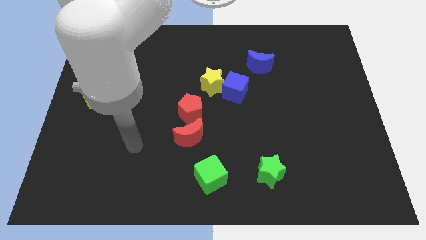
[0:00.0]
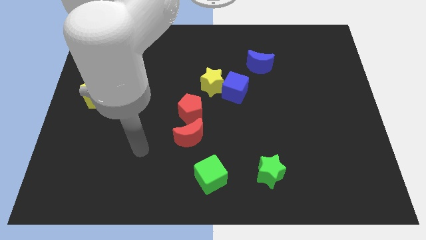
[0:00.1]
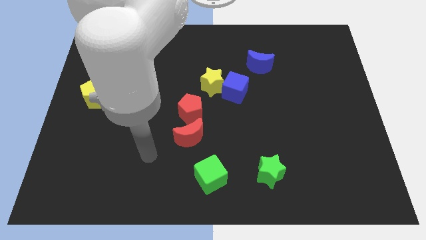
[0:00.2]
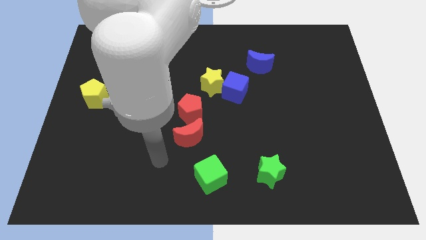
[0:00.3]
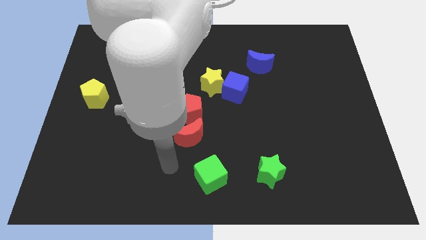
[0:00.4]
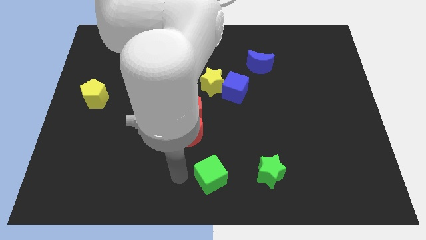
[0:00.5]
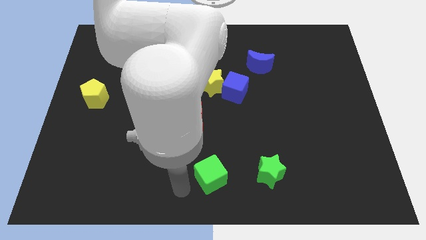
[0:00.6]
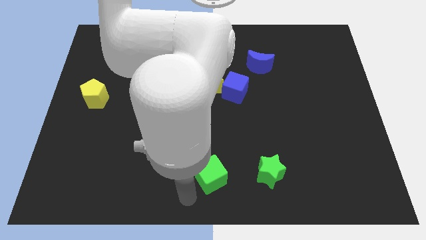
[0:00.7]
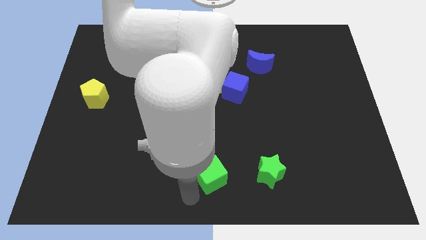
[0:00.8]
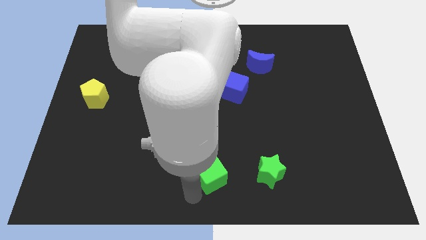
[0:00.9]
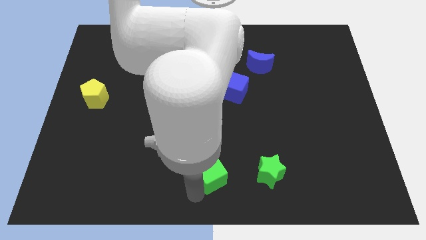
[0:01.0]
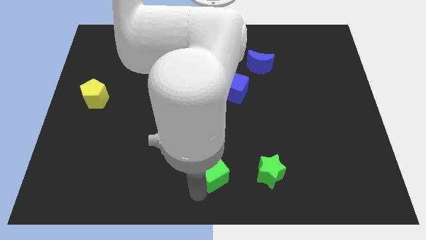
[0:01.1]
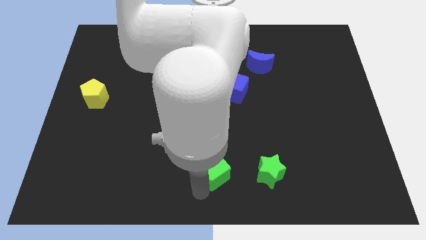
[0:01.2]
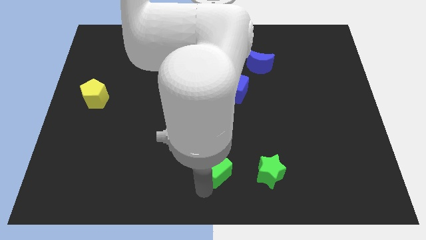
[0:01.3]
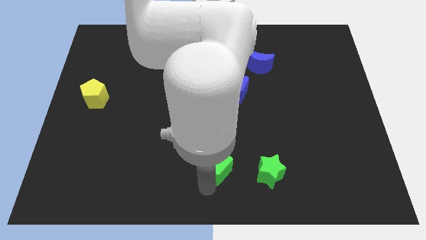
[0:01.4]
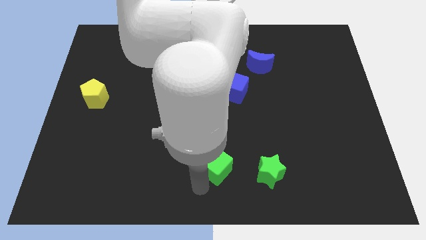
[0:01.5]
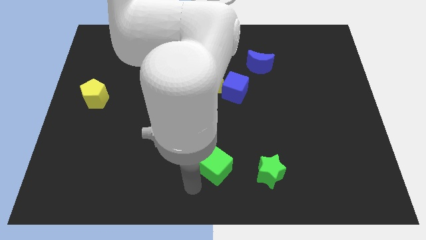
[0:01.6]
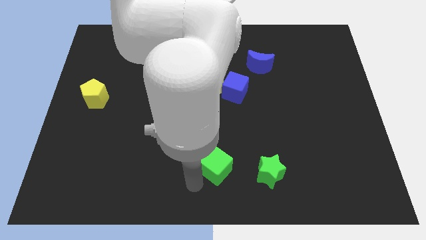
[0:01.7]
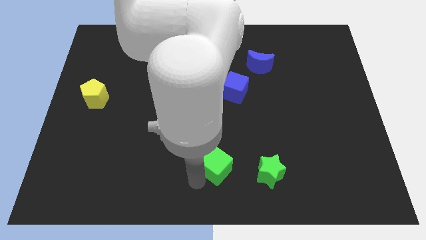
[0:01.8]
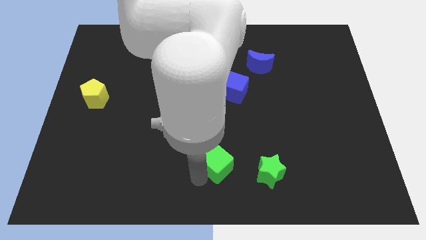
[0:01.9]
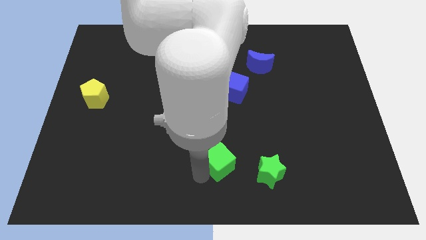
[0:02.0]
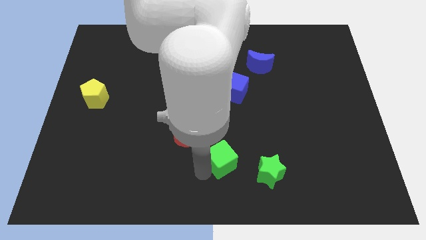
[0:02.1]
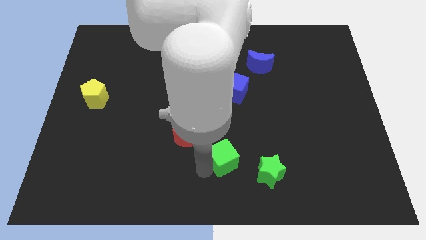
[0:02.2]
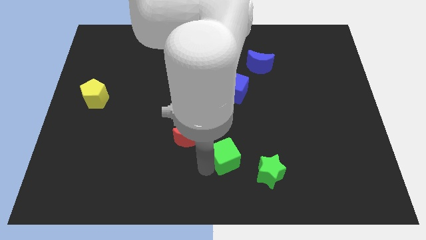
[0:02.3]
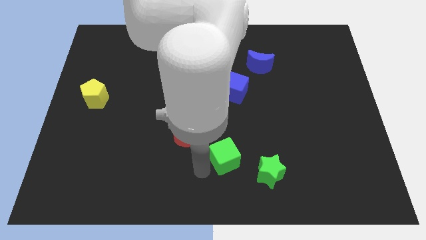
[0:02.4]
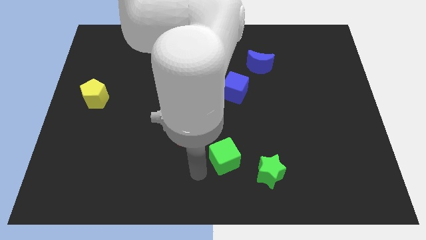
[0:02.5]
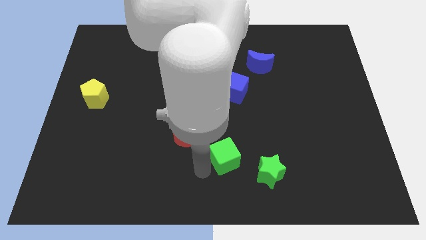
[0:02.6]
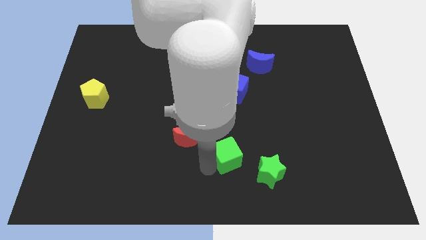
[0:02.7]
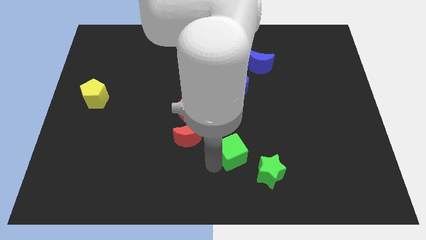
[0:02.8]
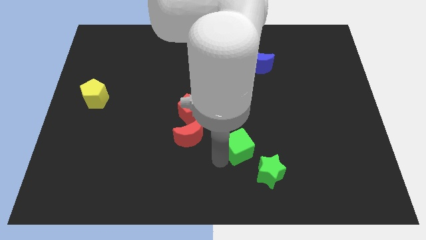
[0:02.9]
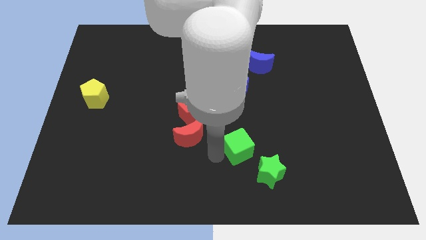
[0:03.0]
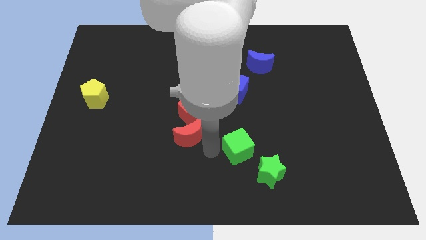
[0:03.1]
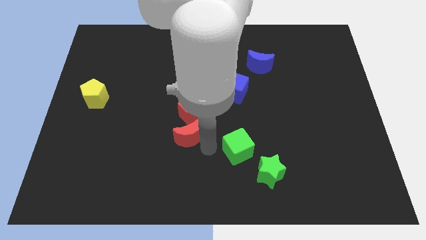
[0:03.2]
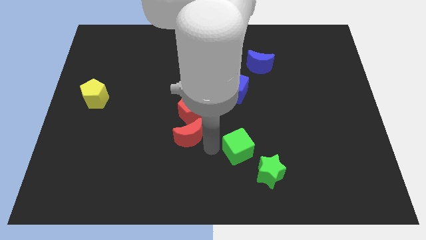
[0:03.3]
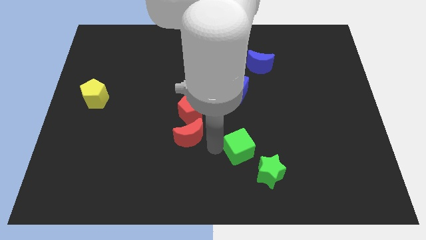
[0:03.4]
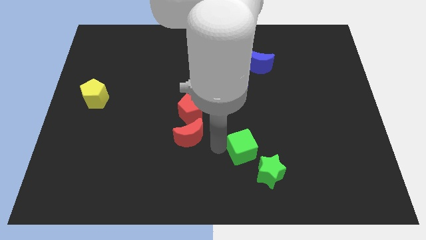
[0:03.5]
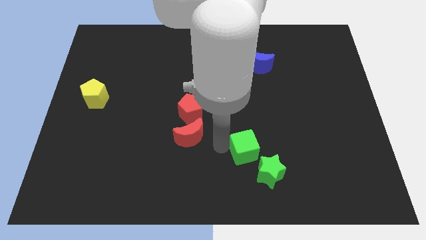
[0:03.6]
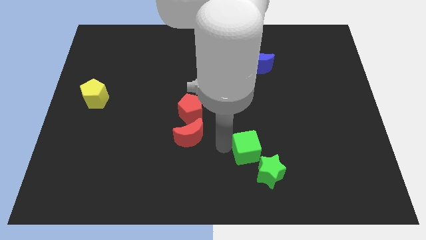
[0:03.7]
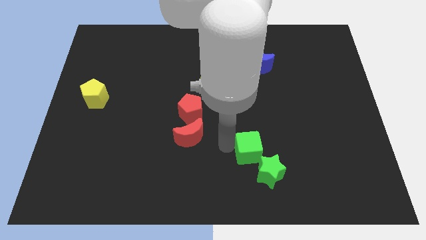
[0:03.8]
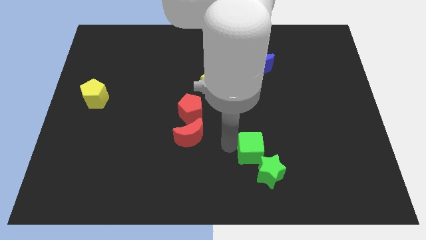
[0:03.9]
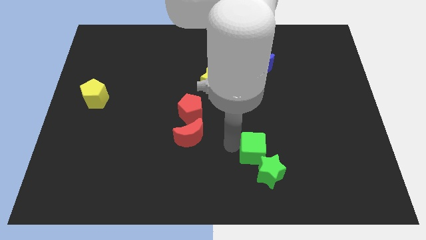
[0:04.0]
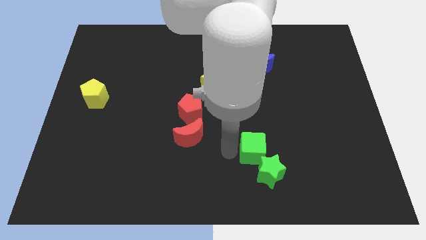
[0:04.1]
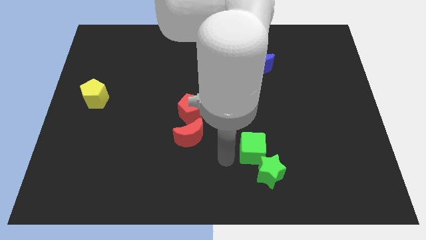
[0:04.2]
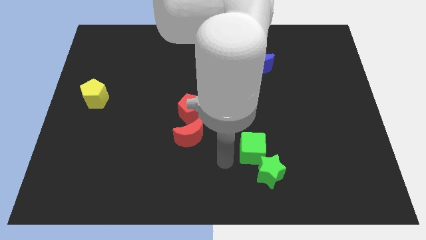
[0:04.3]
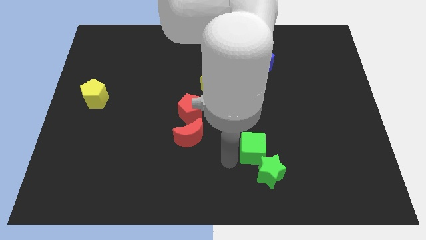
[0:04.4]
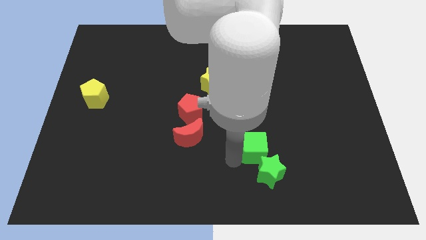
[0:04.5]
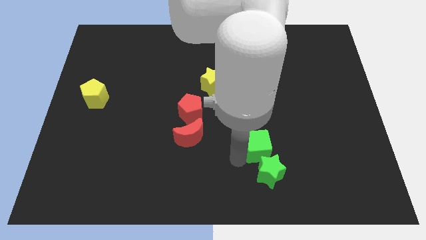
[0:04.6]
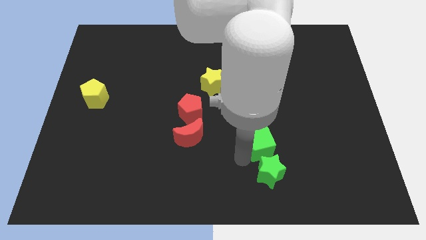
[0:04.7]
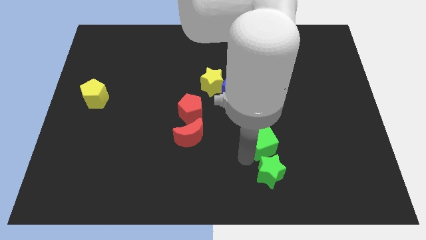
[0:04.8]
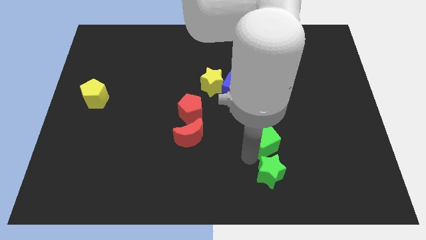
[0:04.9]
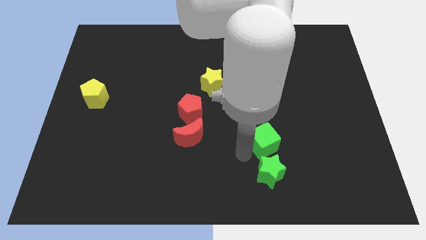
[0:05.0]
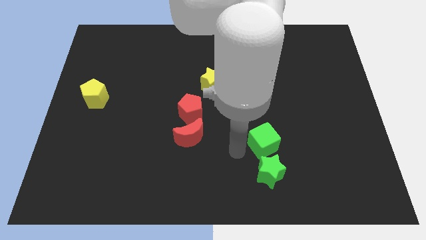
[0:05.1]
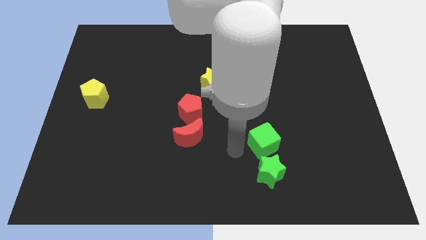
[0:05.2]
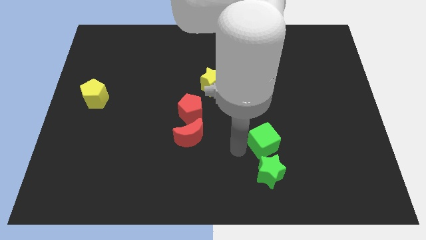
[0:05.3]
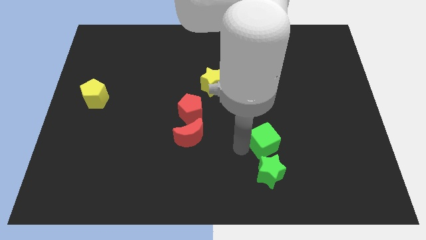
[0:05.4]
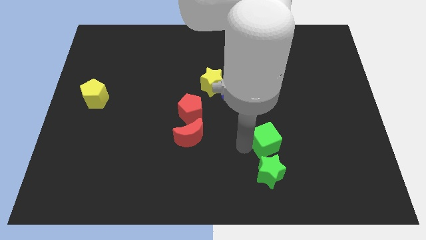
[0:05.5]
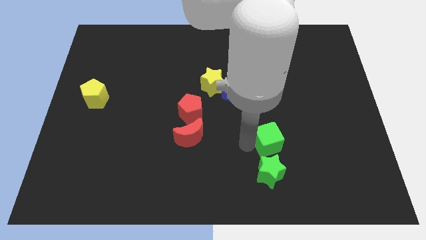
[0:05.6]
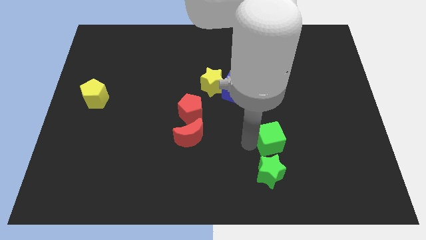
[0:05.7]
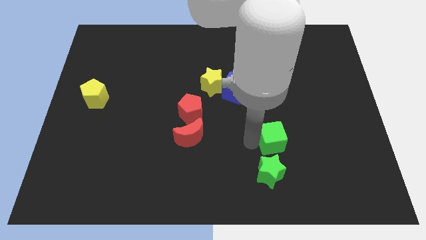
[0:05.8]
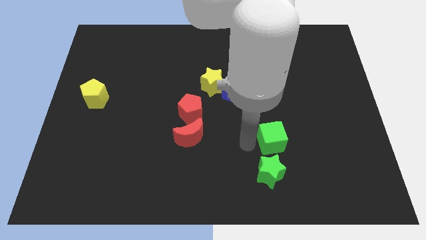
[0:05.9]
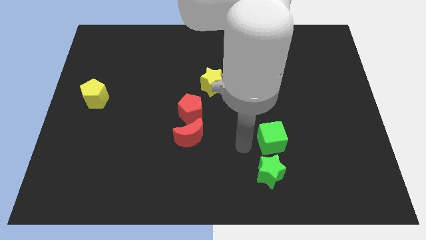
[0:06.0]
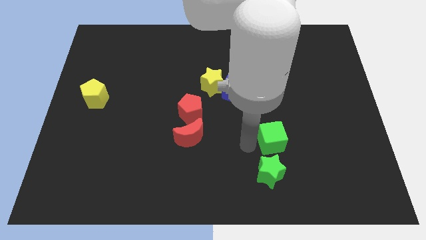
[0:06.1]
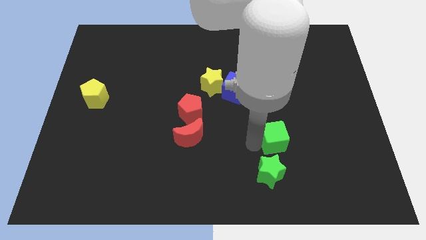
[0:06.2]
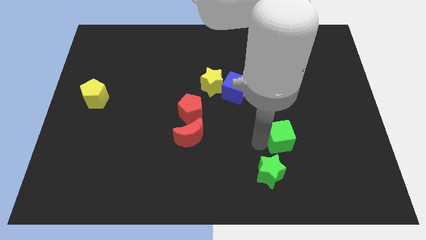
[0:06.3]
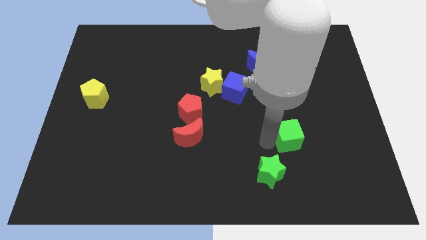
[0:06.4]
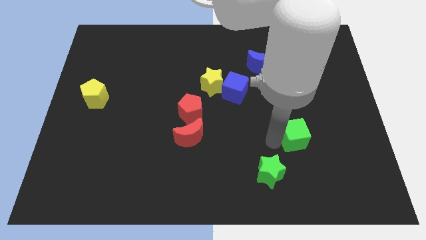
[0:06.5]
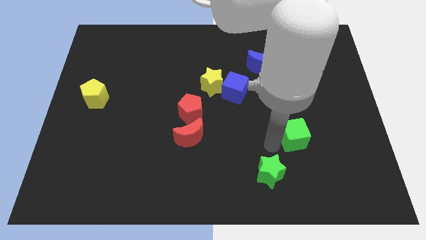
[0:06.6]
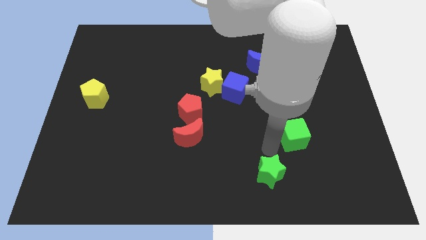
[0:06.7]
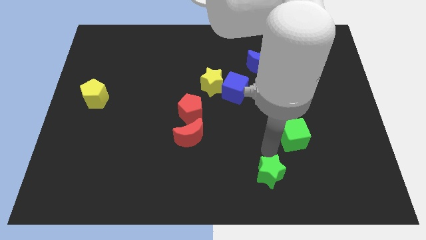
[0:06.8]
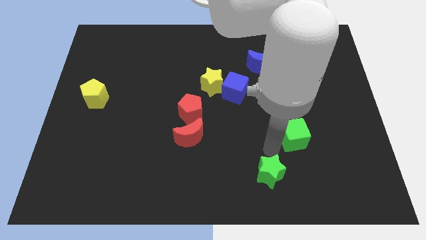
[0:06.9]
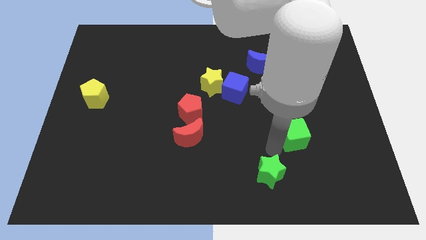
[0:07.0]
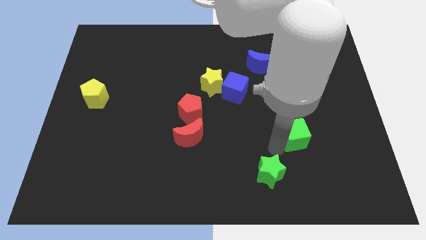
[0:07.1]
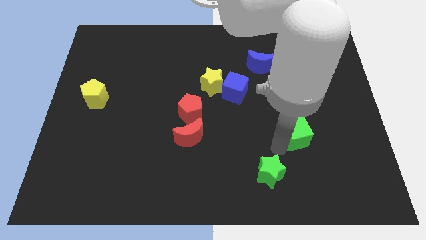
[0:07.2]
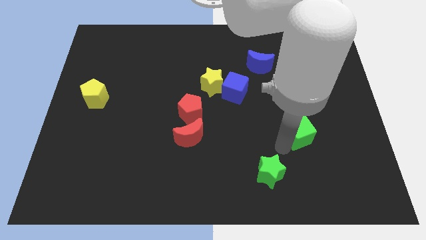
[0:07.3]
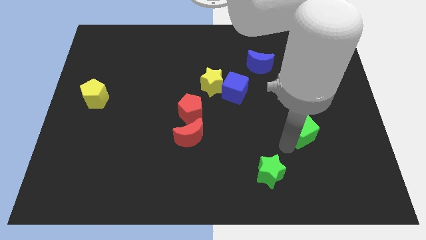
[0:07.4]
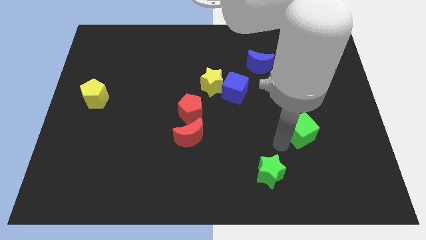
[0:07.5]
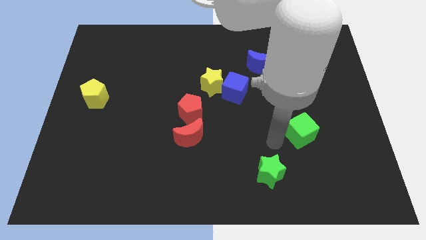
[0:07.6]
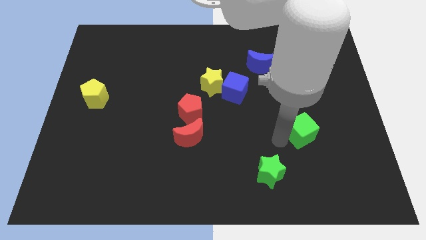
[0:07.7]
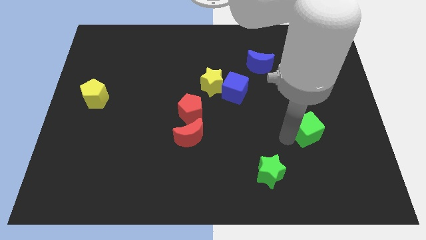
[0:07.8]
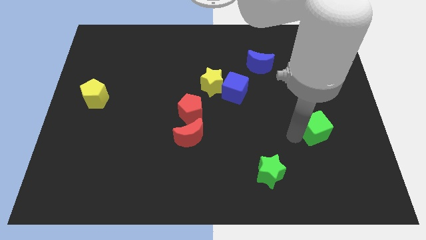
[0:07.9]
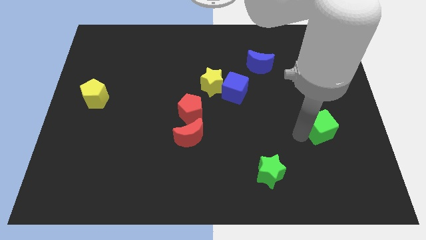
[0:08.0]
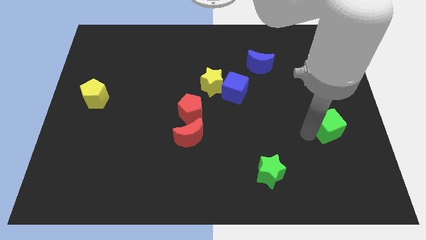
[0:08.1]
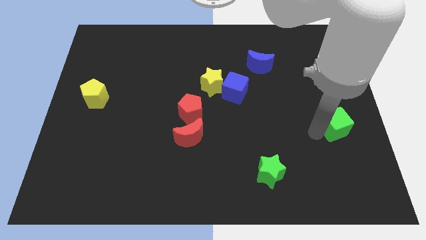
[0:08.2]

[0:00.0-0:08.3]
slide the green cube to the right side
